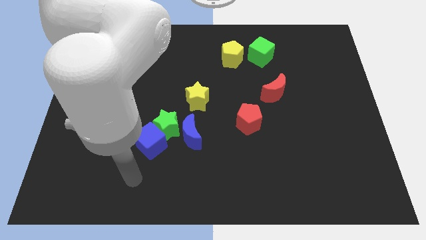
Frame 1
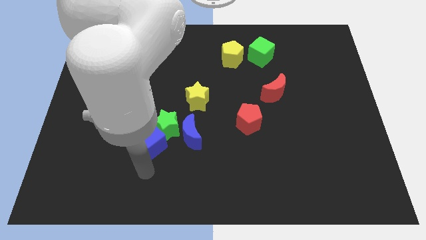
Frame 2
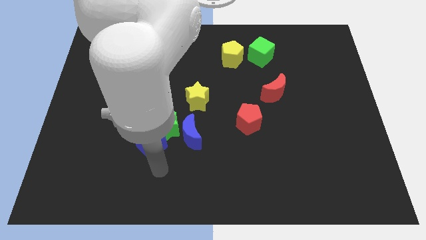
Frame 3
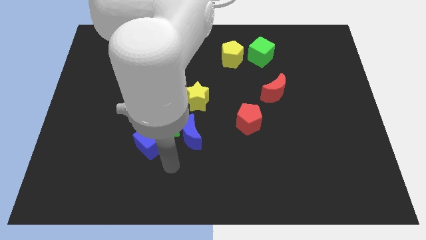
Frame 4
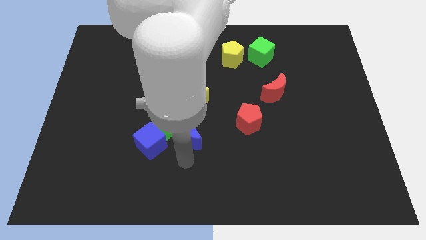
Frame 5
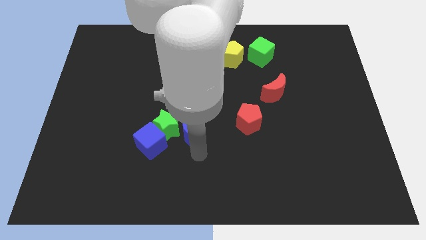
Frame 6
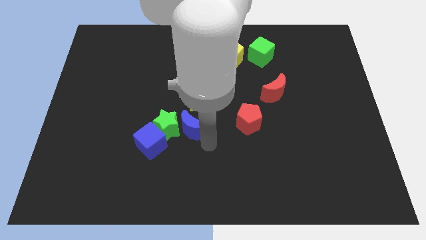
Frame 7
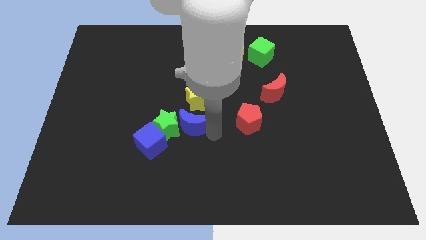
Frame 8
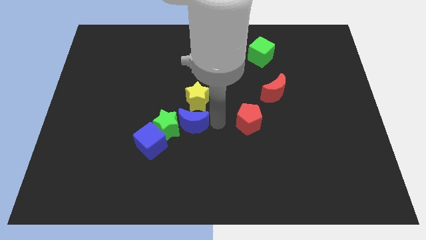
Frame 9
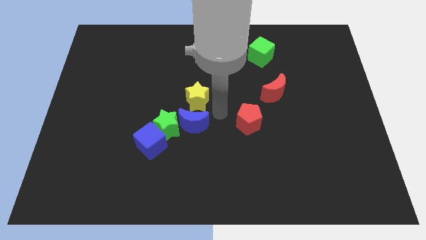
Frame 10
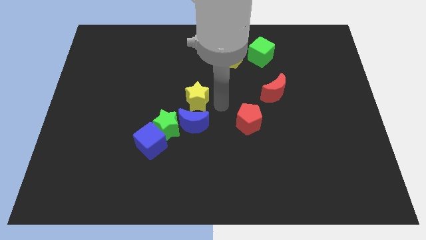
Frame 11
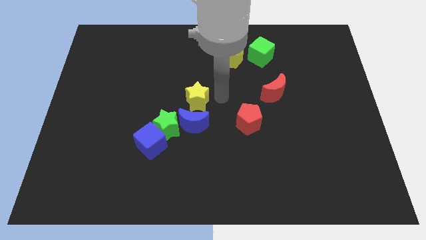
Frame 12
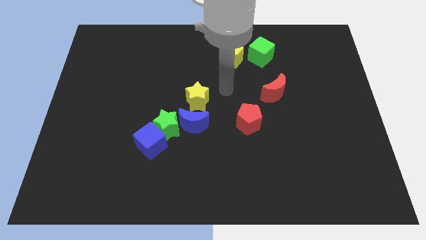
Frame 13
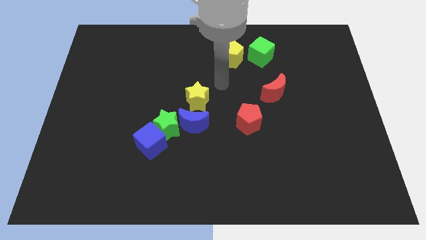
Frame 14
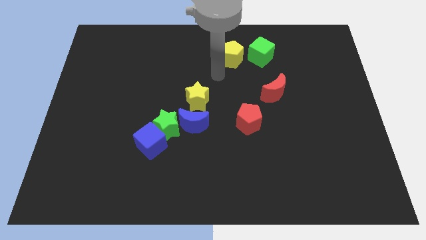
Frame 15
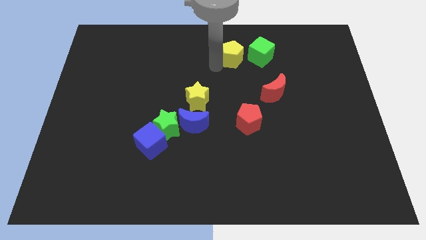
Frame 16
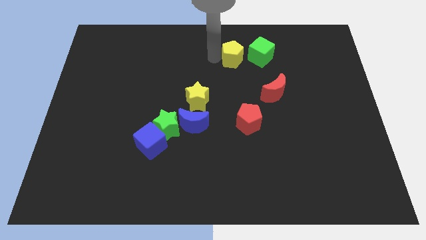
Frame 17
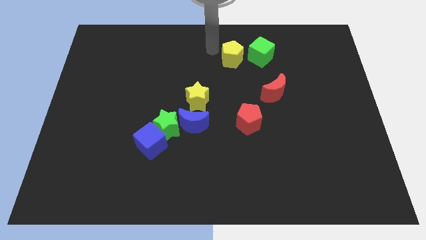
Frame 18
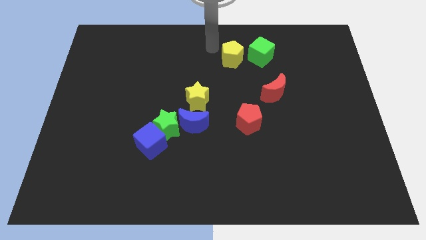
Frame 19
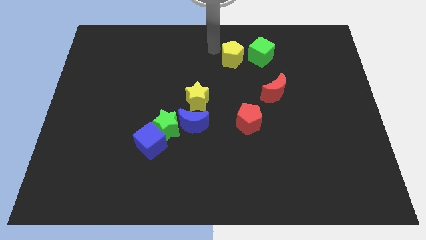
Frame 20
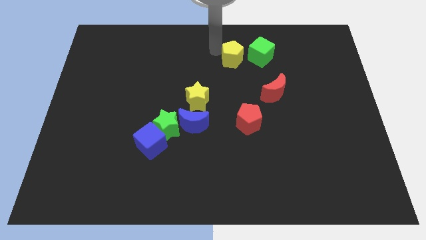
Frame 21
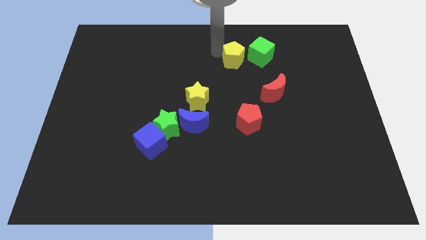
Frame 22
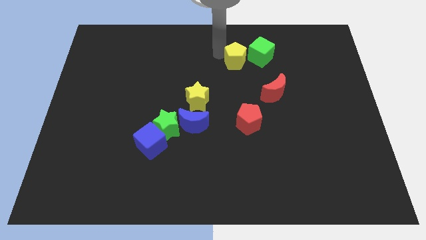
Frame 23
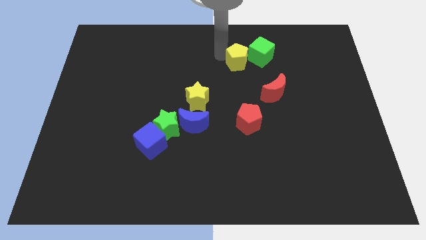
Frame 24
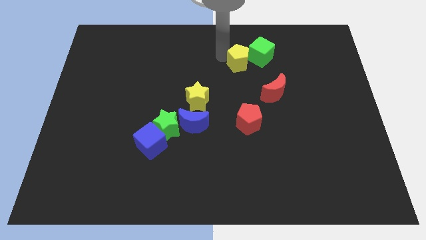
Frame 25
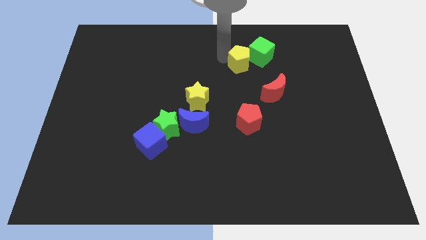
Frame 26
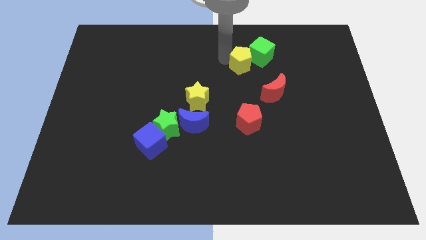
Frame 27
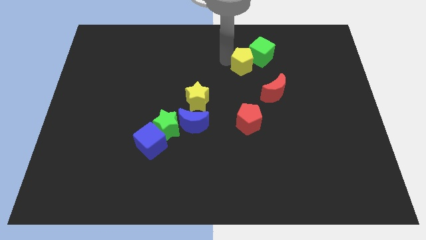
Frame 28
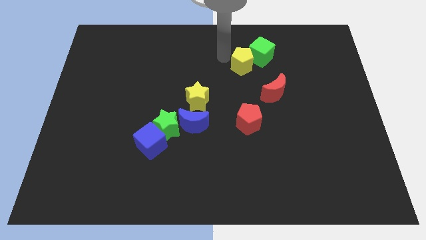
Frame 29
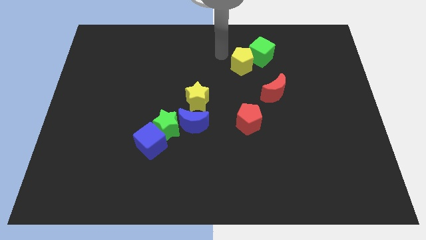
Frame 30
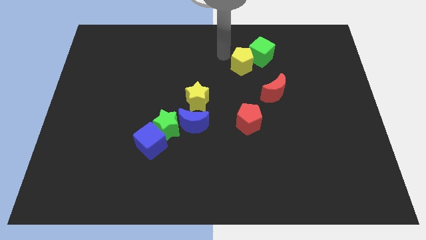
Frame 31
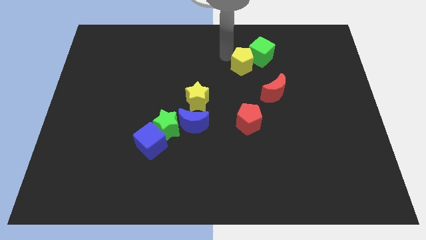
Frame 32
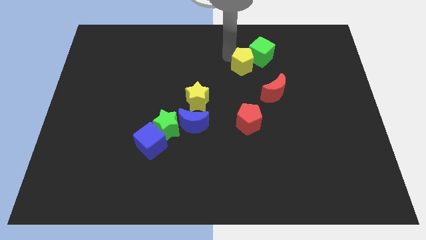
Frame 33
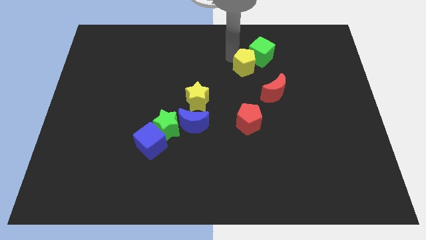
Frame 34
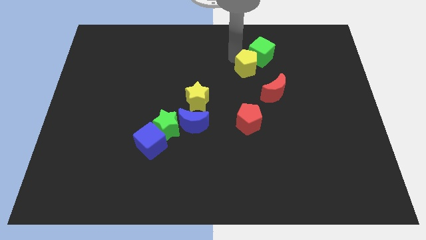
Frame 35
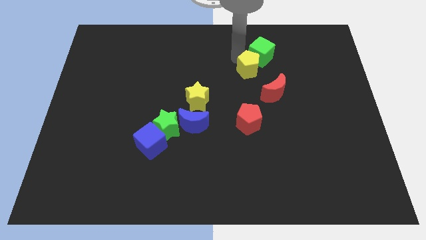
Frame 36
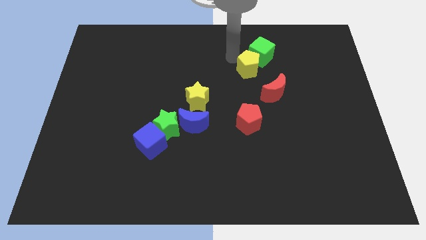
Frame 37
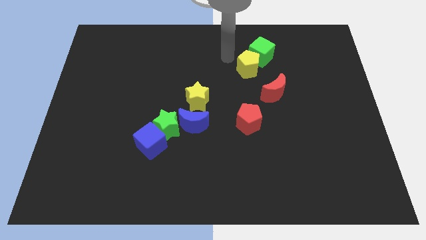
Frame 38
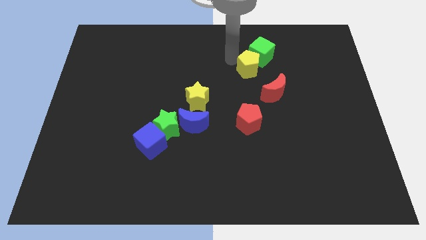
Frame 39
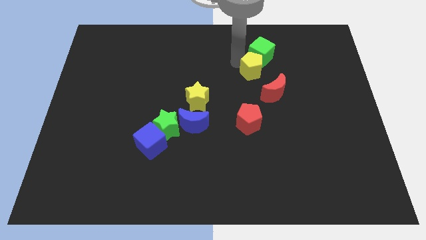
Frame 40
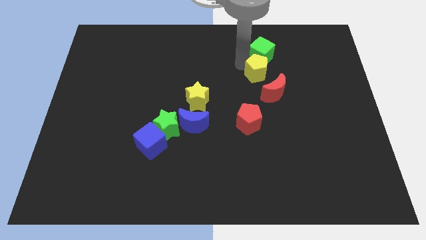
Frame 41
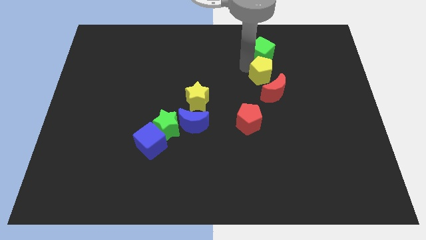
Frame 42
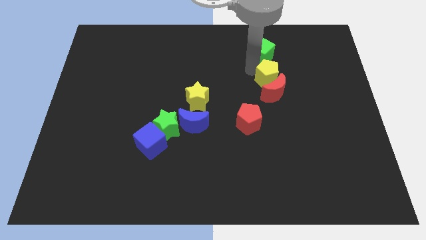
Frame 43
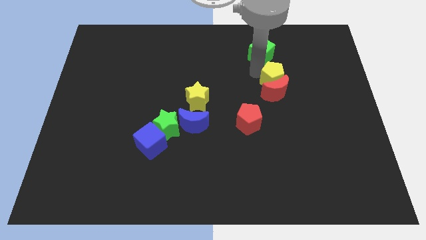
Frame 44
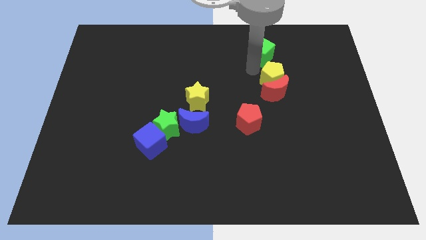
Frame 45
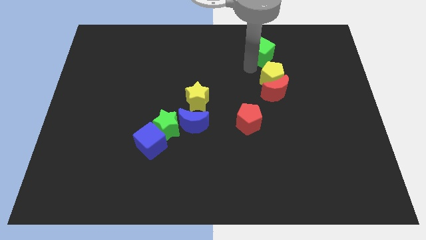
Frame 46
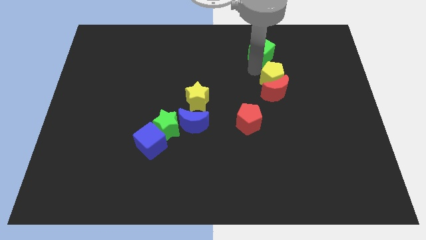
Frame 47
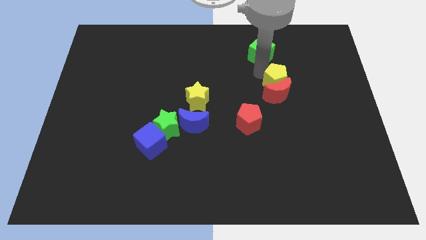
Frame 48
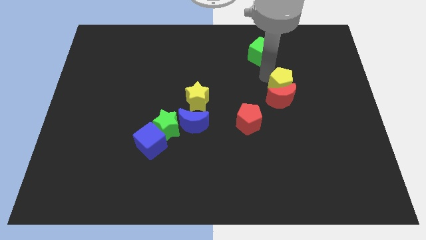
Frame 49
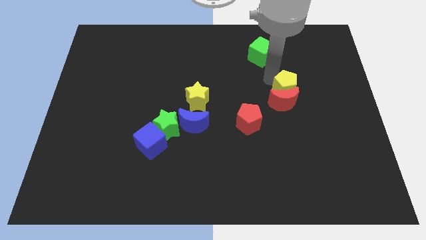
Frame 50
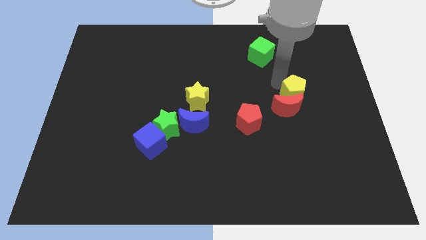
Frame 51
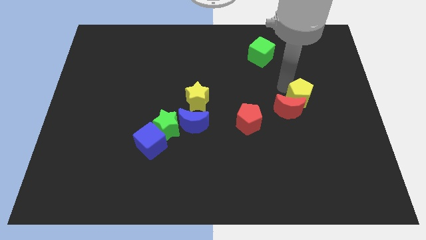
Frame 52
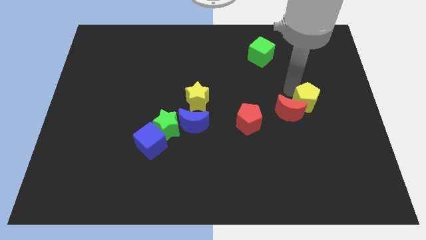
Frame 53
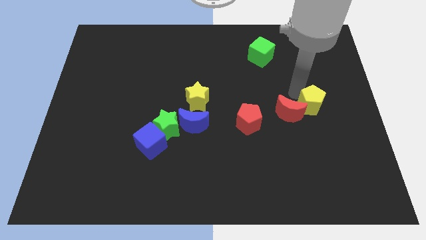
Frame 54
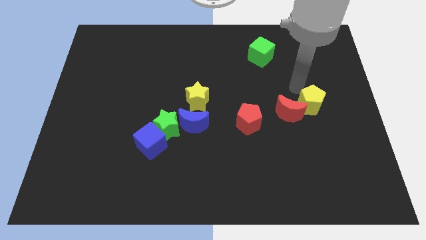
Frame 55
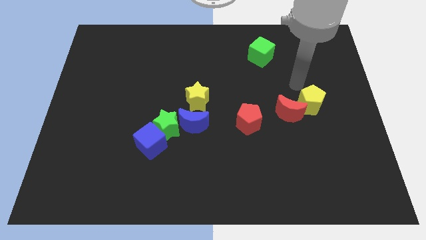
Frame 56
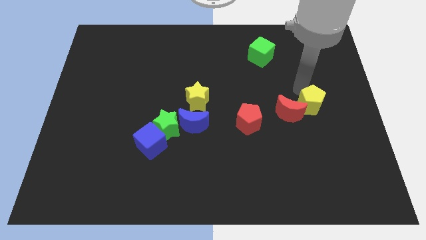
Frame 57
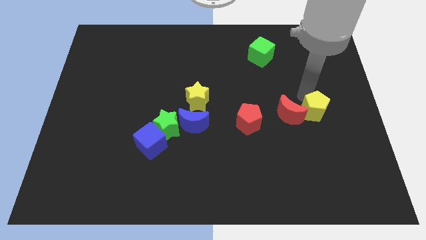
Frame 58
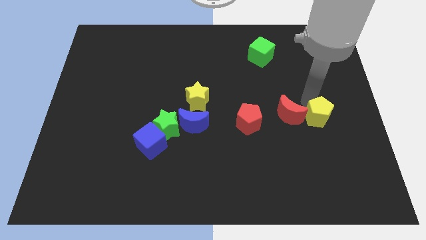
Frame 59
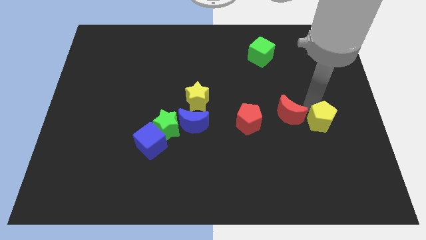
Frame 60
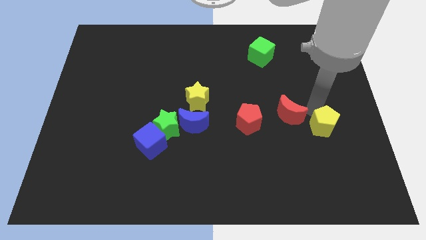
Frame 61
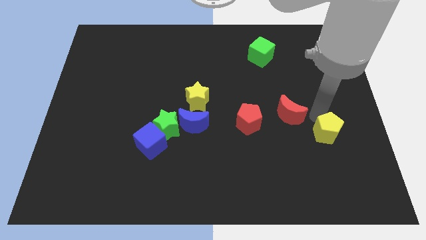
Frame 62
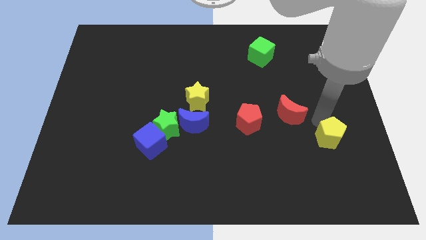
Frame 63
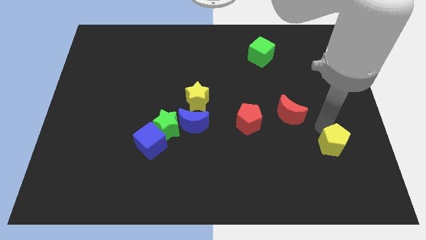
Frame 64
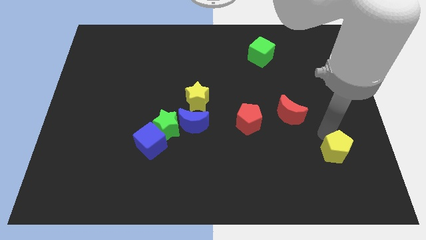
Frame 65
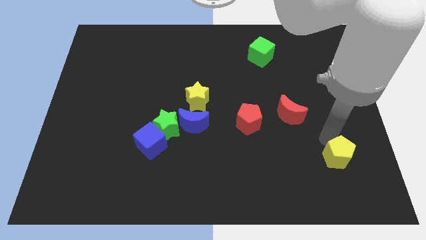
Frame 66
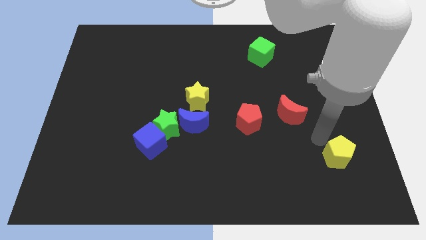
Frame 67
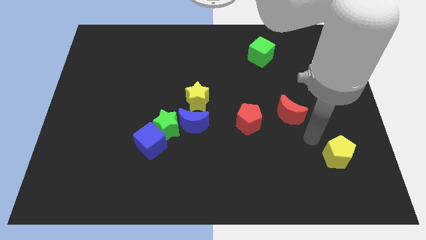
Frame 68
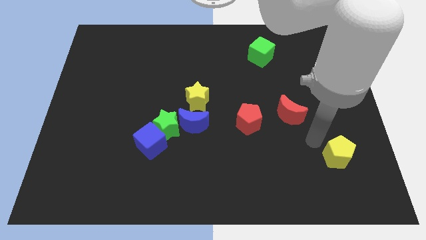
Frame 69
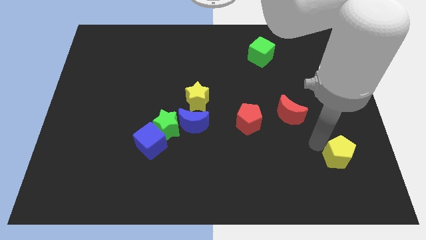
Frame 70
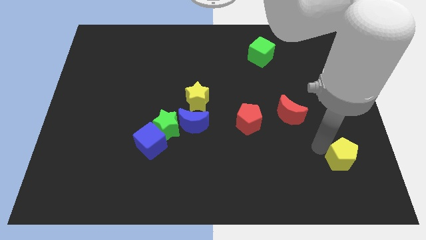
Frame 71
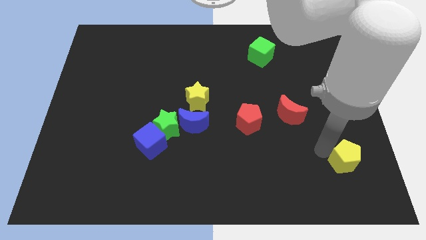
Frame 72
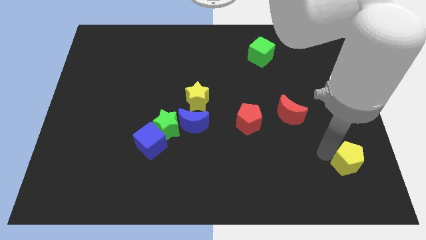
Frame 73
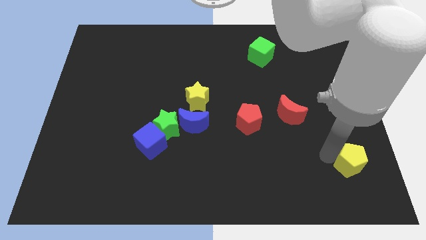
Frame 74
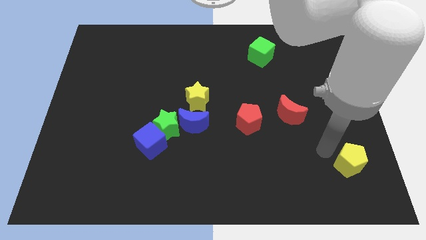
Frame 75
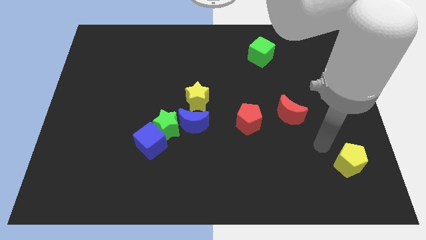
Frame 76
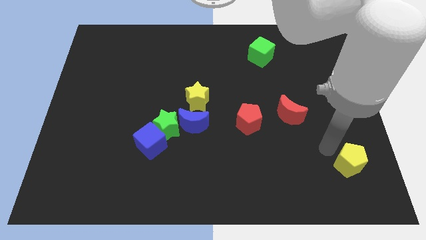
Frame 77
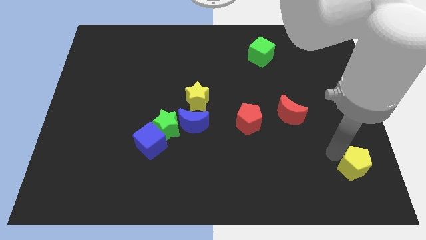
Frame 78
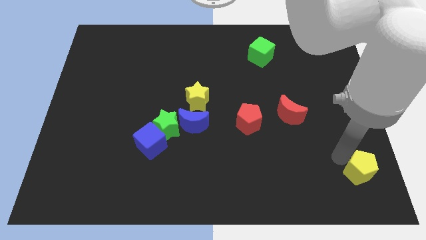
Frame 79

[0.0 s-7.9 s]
slide the yellow pentagon to the lower right corner

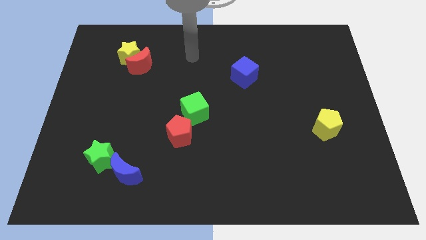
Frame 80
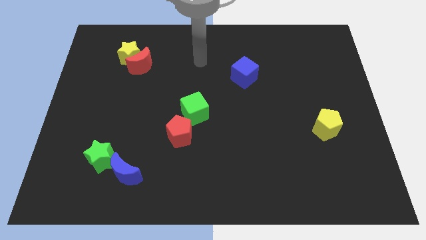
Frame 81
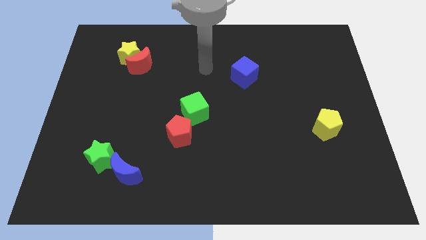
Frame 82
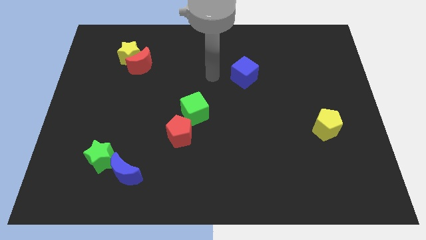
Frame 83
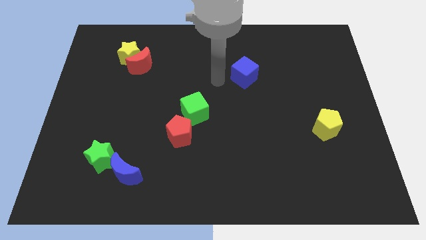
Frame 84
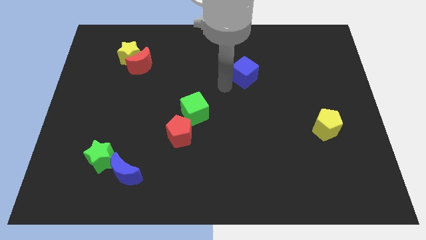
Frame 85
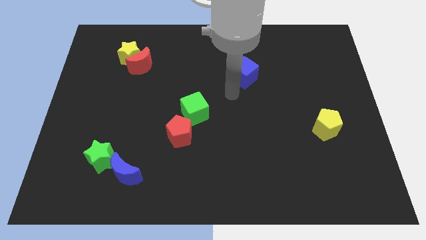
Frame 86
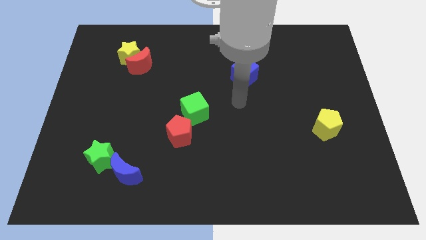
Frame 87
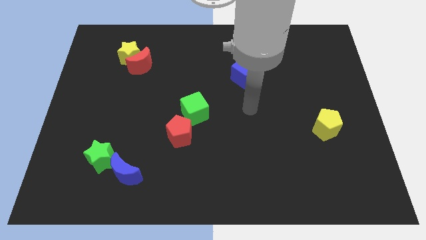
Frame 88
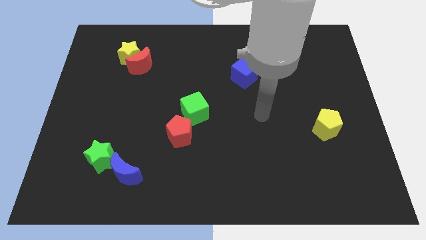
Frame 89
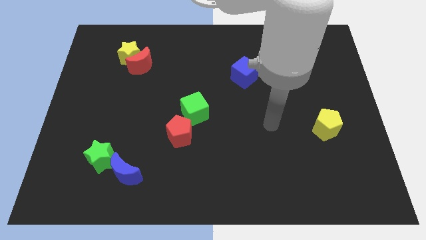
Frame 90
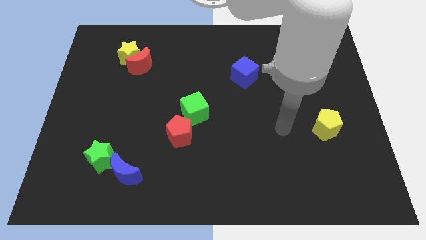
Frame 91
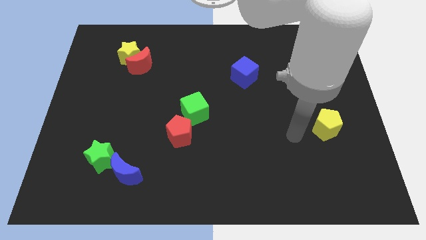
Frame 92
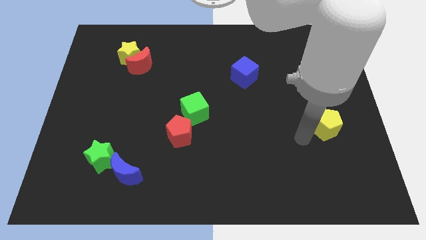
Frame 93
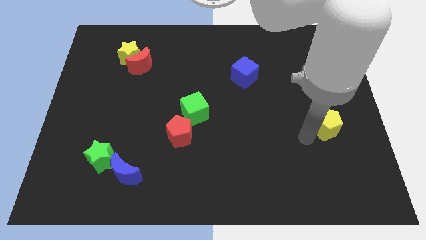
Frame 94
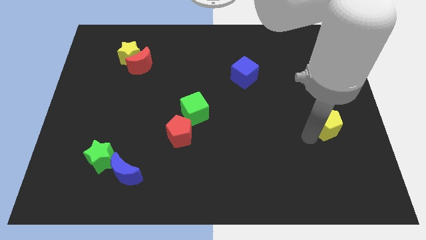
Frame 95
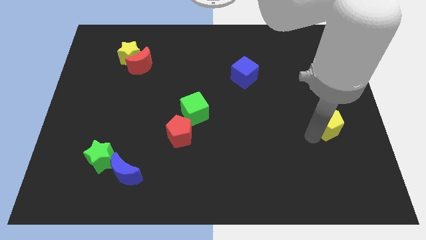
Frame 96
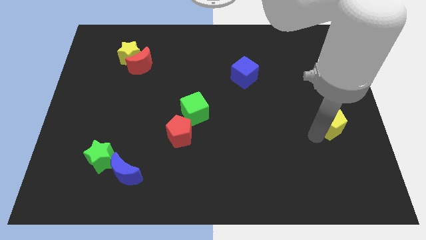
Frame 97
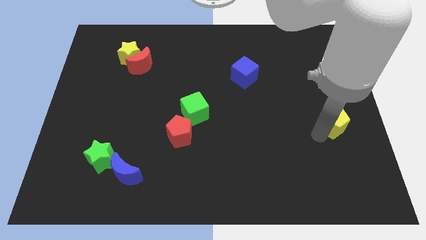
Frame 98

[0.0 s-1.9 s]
slide the yellow pentagon to the center right
